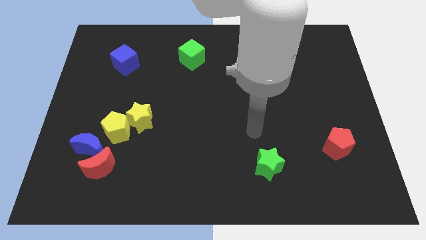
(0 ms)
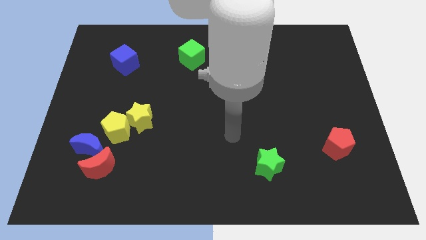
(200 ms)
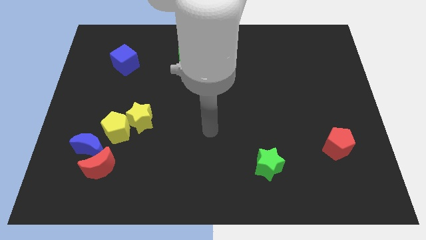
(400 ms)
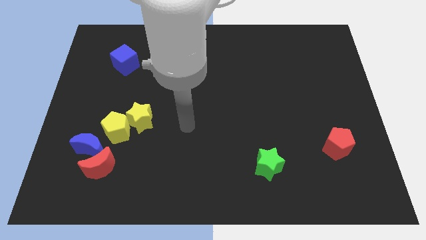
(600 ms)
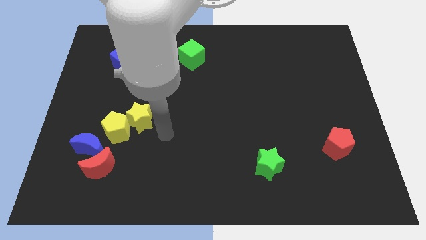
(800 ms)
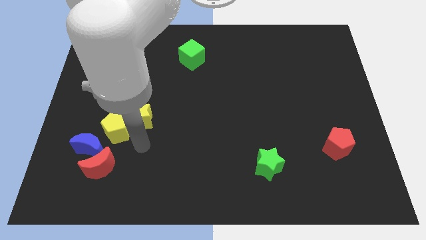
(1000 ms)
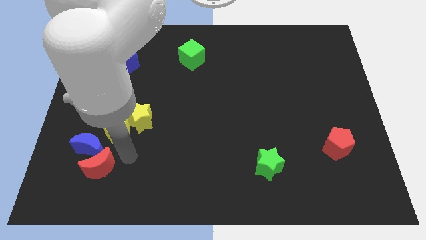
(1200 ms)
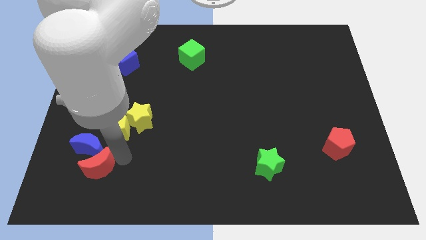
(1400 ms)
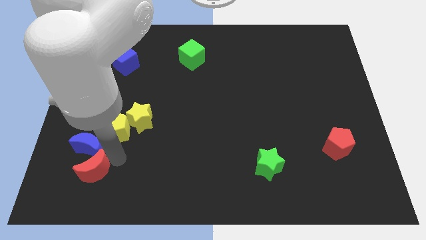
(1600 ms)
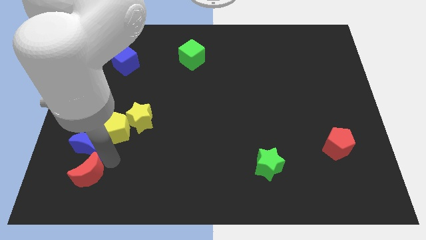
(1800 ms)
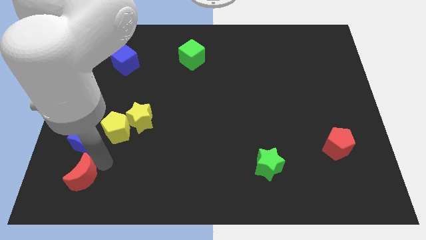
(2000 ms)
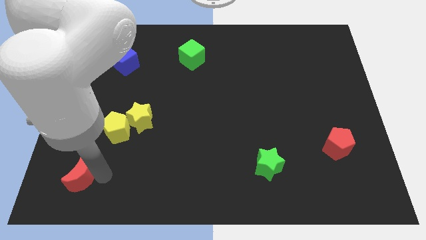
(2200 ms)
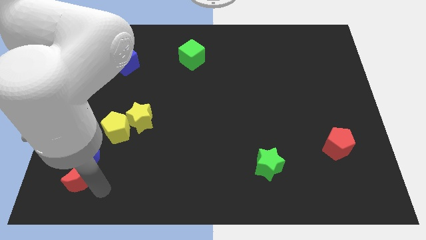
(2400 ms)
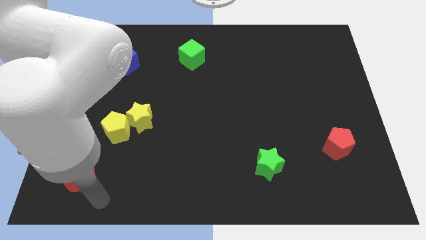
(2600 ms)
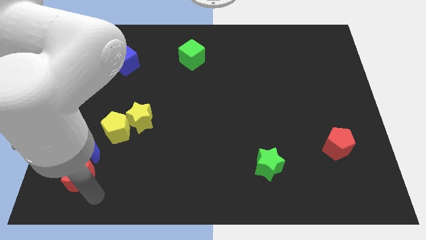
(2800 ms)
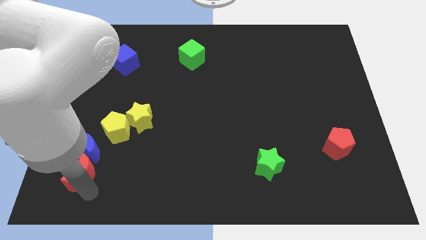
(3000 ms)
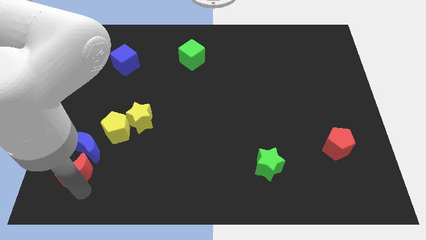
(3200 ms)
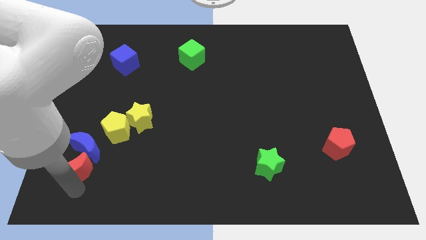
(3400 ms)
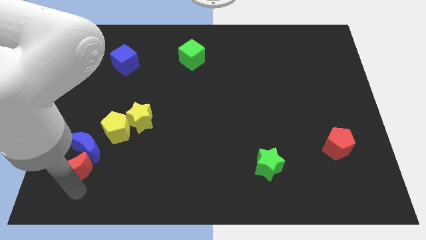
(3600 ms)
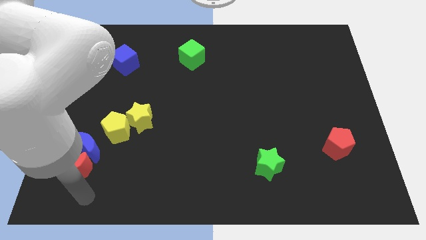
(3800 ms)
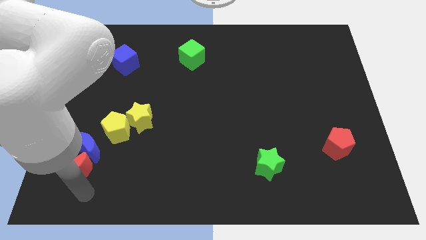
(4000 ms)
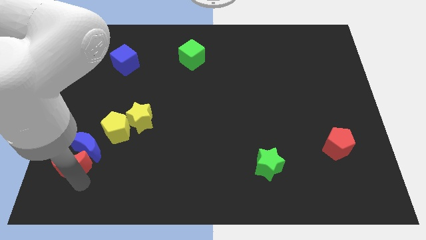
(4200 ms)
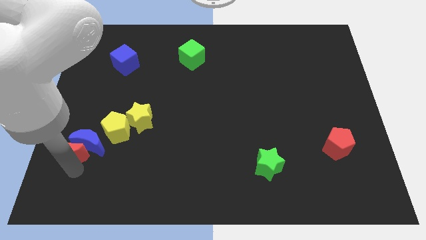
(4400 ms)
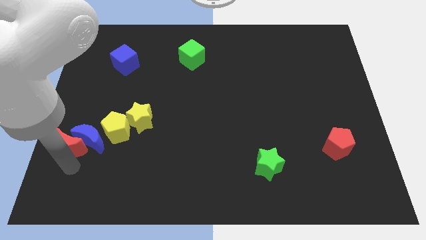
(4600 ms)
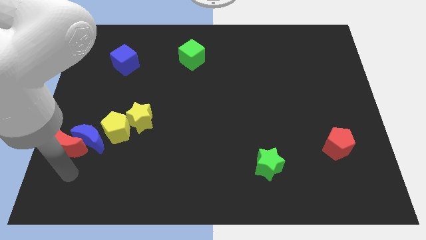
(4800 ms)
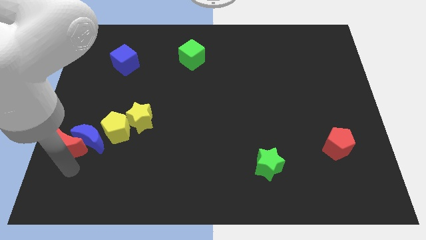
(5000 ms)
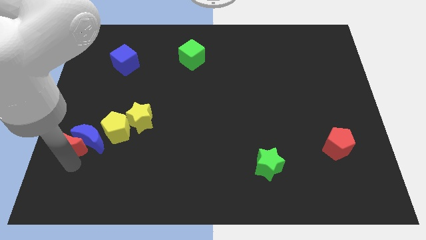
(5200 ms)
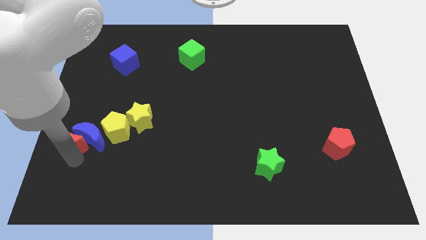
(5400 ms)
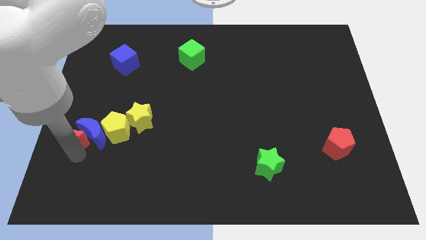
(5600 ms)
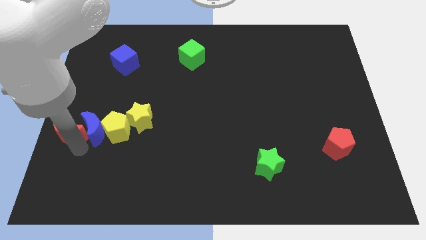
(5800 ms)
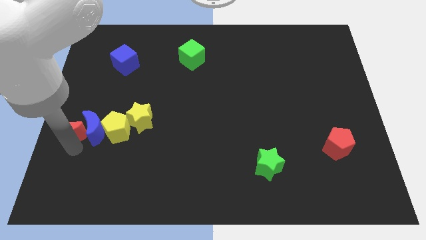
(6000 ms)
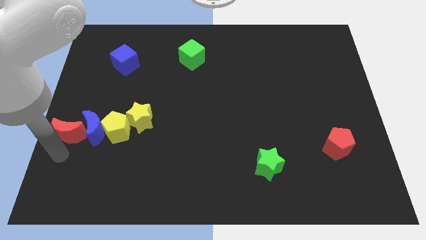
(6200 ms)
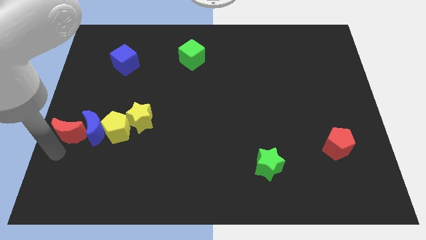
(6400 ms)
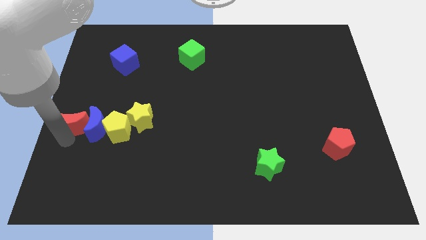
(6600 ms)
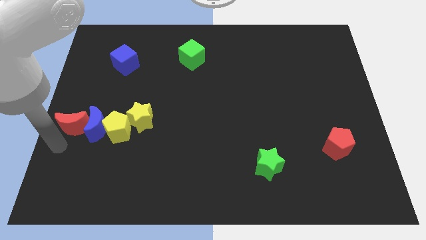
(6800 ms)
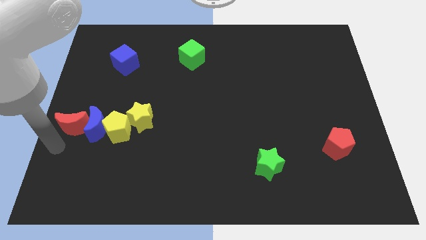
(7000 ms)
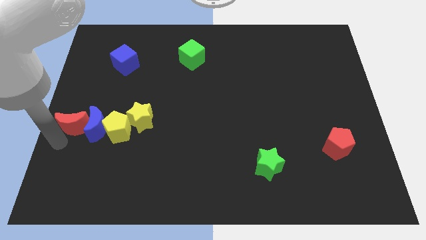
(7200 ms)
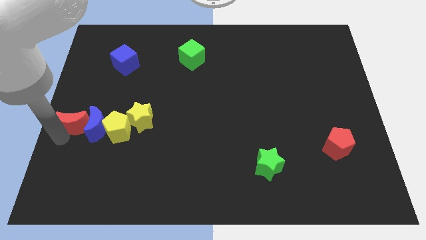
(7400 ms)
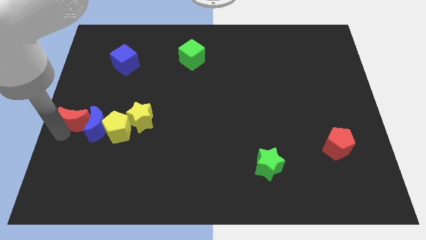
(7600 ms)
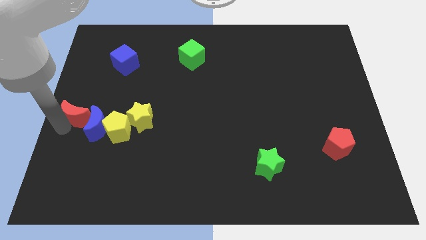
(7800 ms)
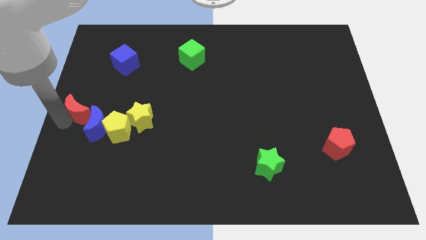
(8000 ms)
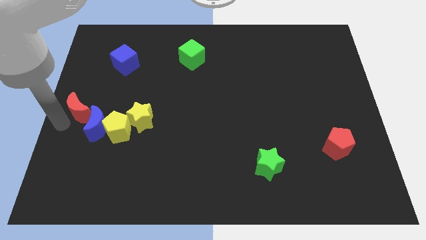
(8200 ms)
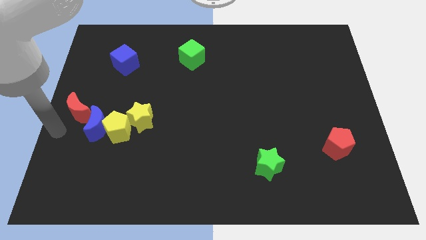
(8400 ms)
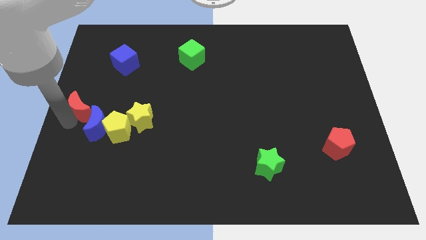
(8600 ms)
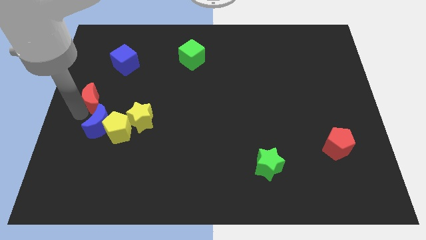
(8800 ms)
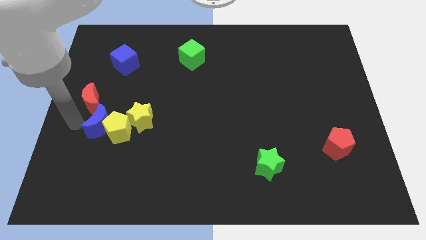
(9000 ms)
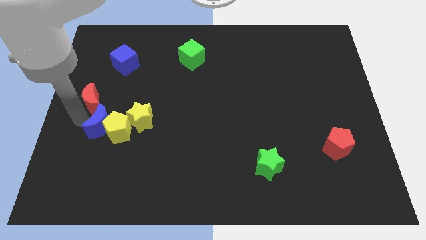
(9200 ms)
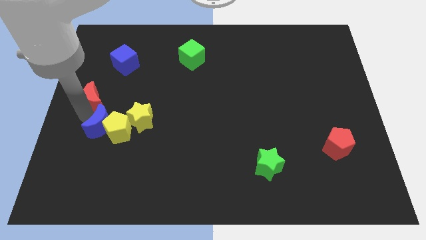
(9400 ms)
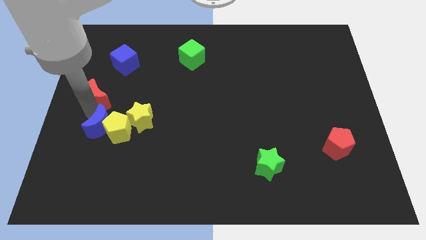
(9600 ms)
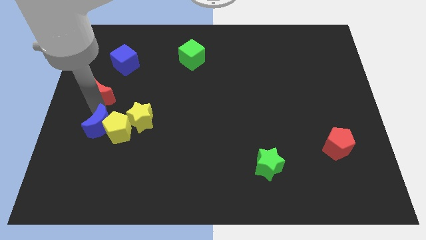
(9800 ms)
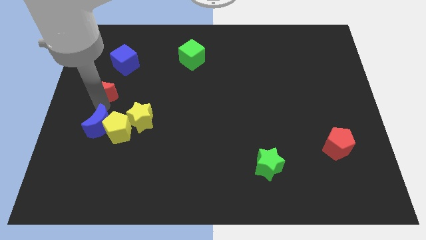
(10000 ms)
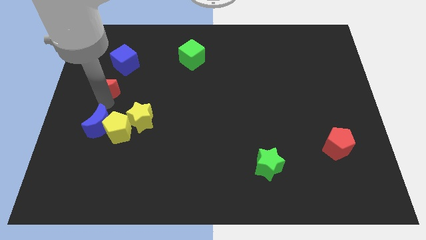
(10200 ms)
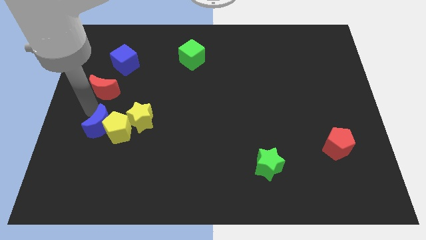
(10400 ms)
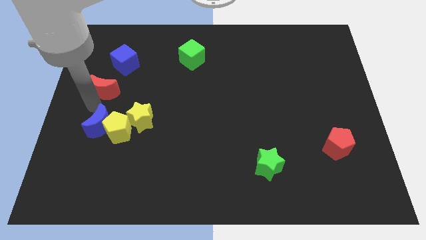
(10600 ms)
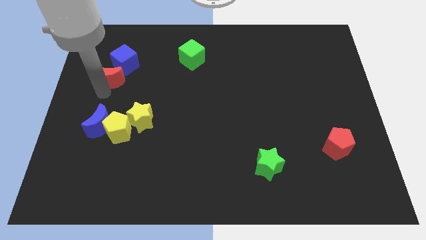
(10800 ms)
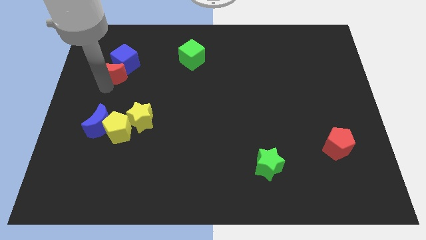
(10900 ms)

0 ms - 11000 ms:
slide the red moon close to the blue cube

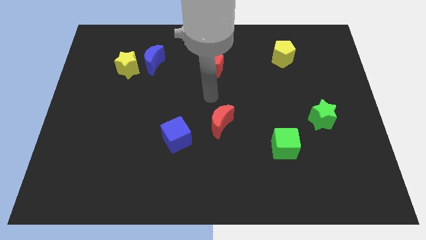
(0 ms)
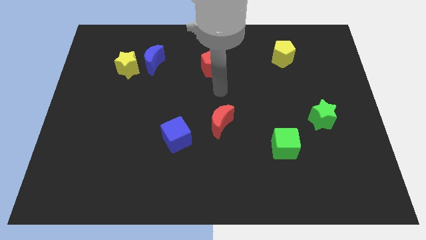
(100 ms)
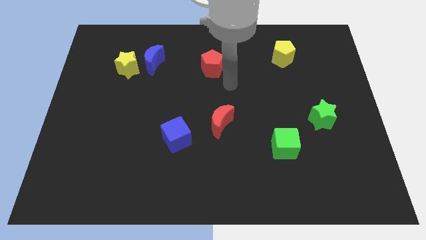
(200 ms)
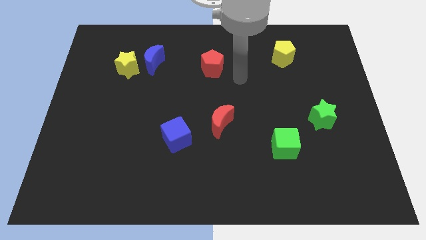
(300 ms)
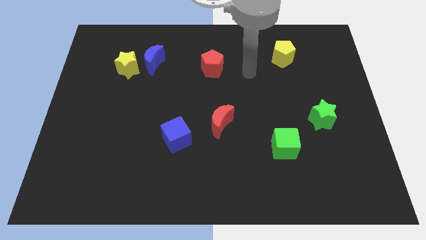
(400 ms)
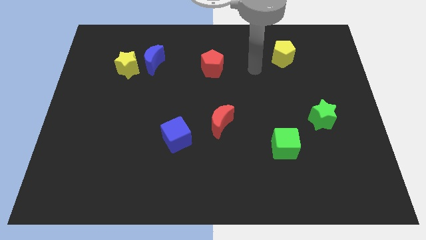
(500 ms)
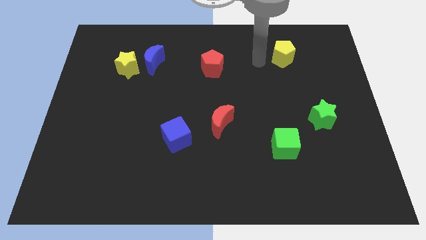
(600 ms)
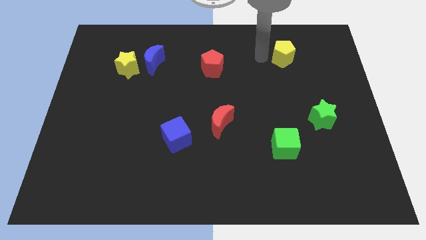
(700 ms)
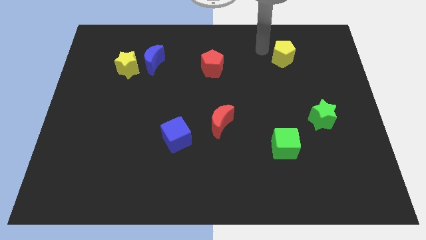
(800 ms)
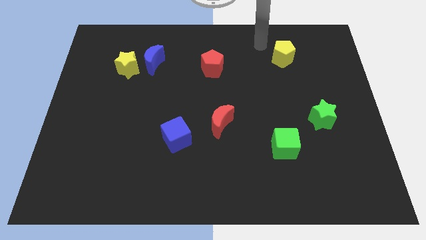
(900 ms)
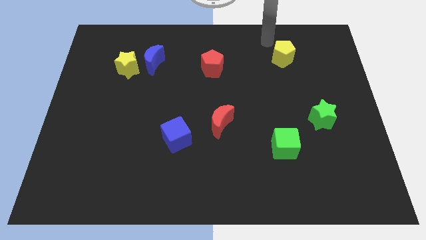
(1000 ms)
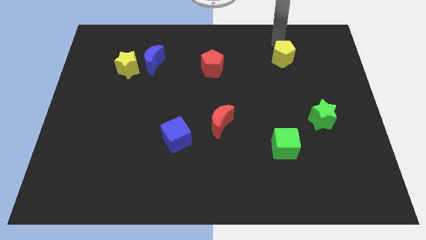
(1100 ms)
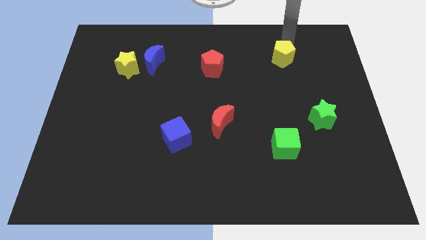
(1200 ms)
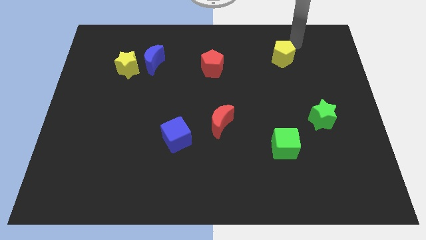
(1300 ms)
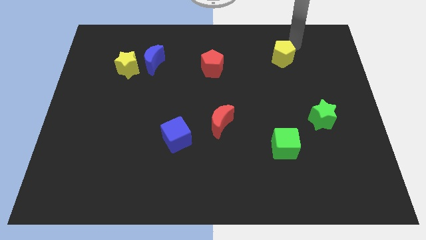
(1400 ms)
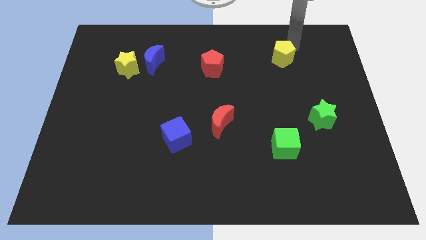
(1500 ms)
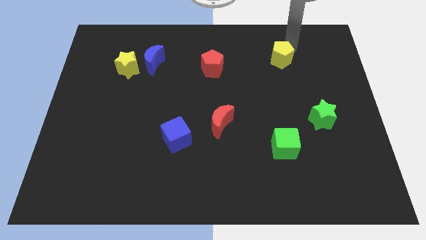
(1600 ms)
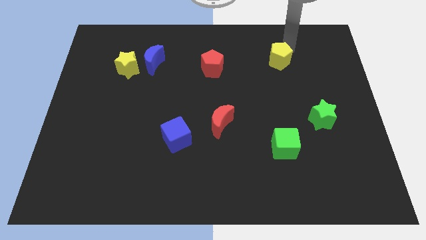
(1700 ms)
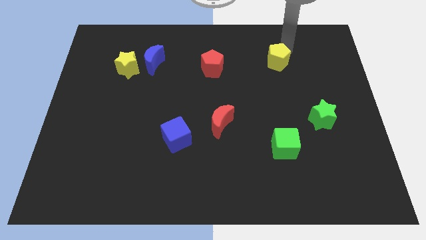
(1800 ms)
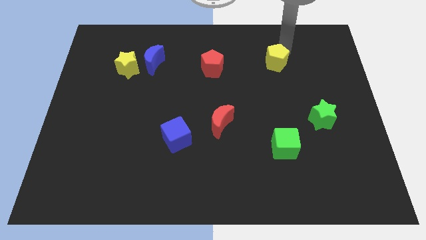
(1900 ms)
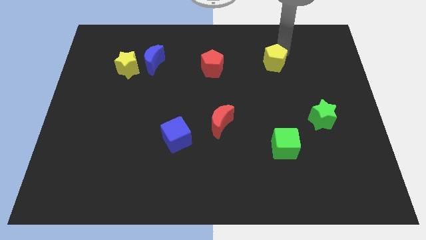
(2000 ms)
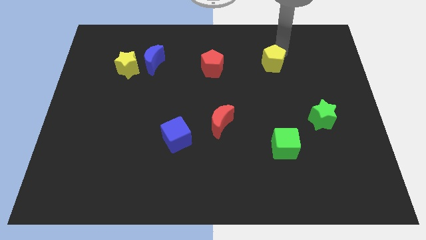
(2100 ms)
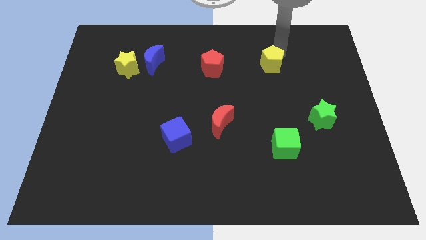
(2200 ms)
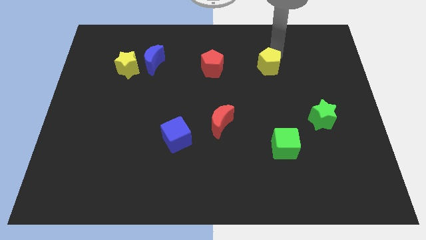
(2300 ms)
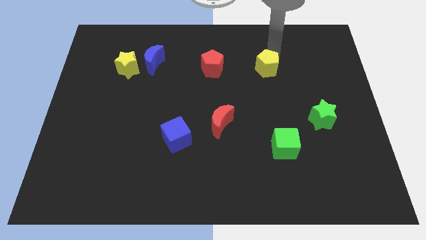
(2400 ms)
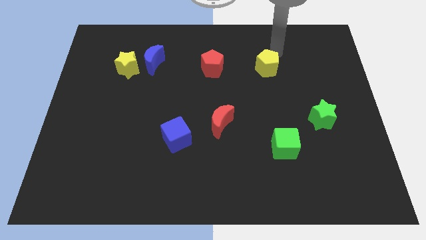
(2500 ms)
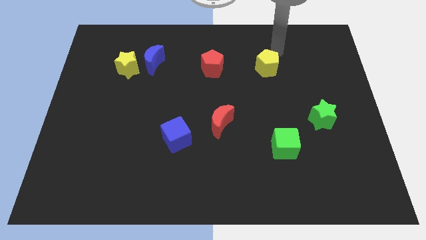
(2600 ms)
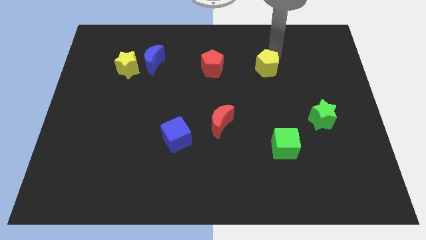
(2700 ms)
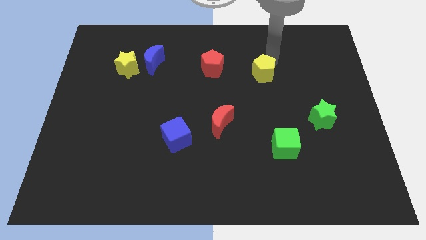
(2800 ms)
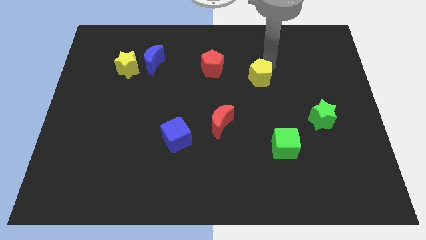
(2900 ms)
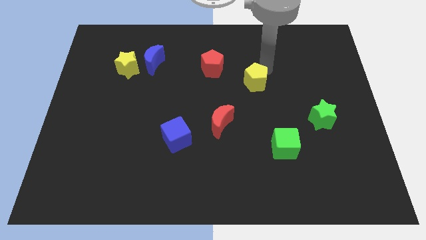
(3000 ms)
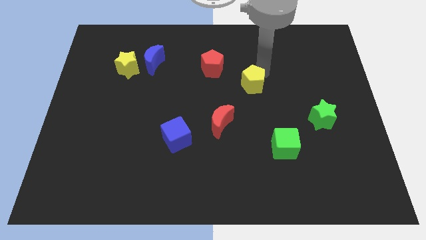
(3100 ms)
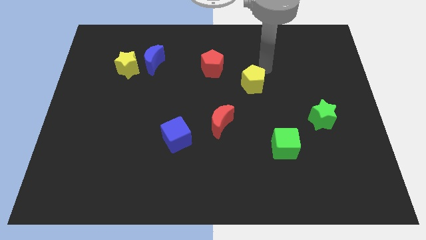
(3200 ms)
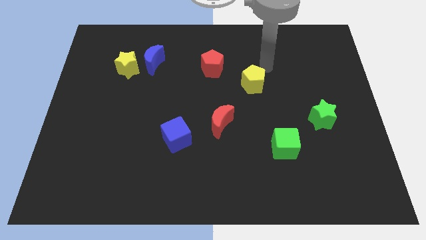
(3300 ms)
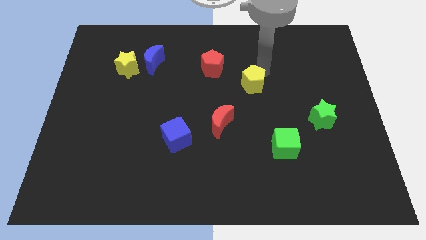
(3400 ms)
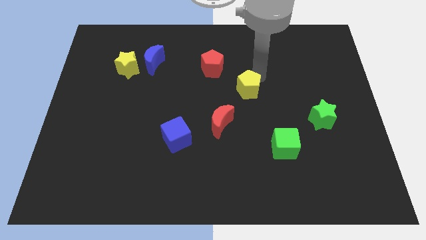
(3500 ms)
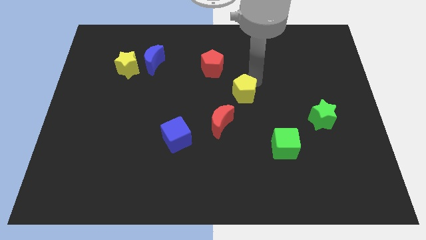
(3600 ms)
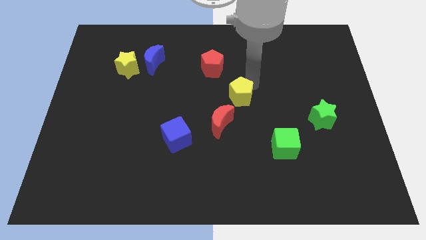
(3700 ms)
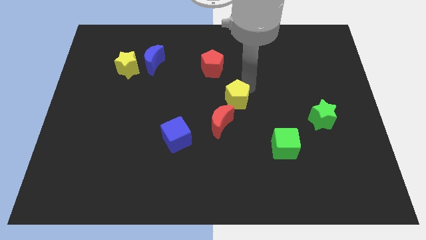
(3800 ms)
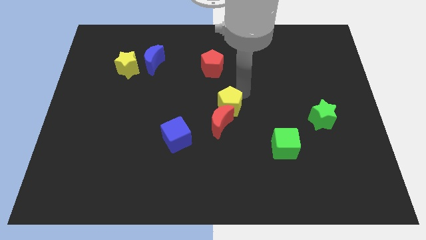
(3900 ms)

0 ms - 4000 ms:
put the yellow pentagon close to the red moon
